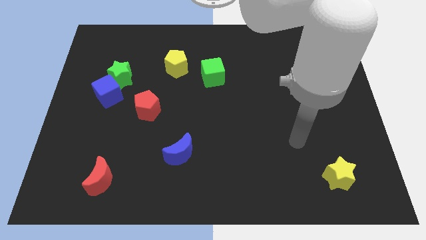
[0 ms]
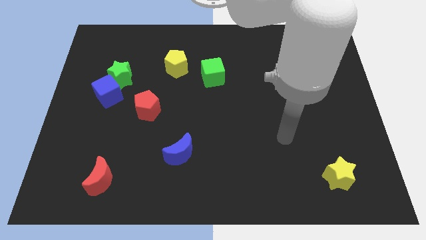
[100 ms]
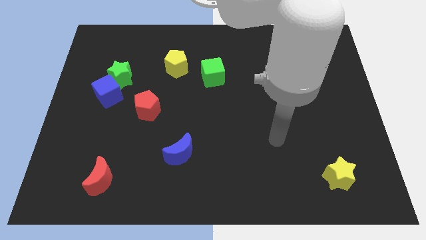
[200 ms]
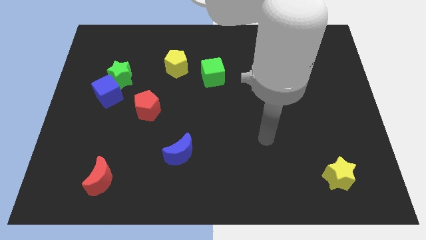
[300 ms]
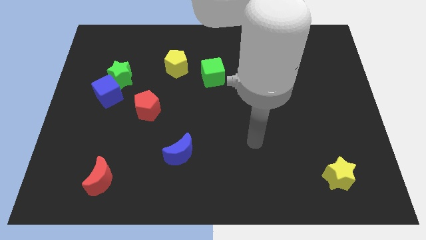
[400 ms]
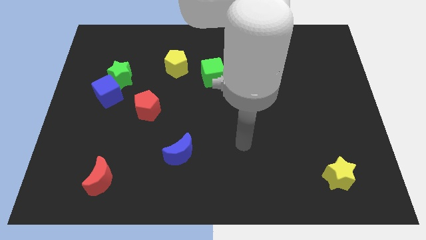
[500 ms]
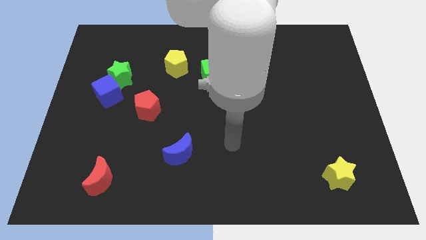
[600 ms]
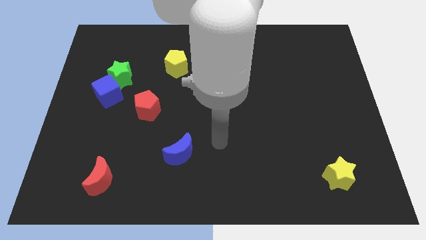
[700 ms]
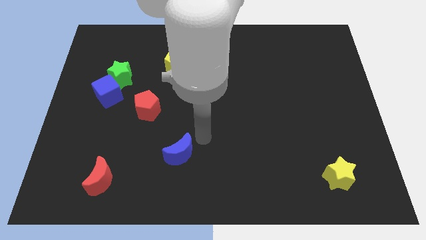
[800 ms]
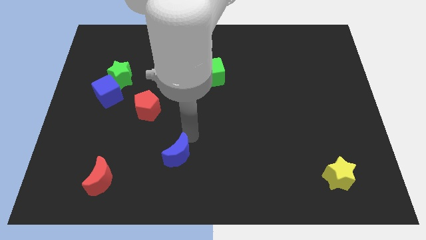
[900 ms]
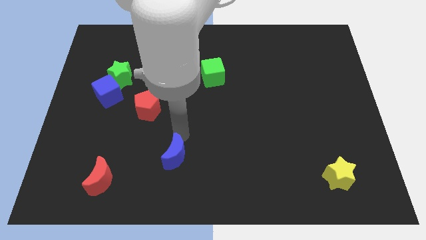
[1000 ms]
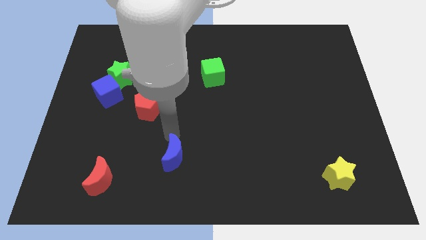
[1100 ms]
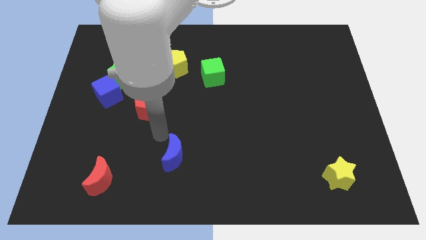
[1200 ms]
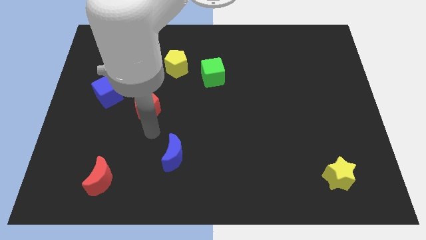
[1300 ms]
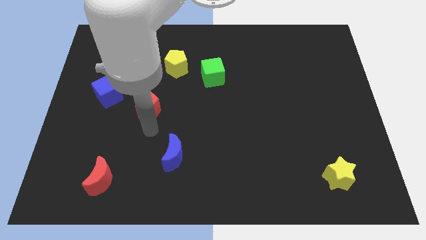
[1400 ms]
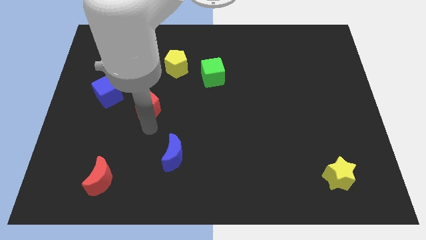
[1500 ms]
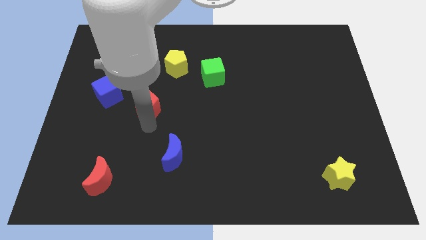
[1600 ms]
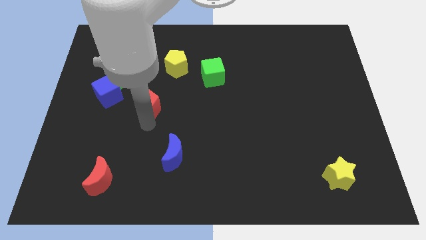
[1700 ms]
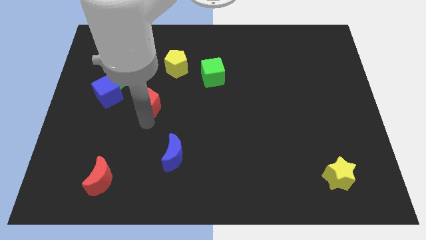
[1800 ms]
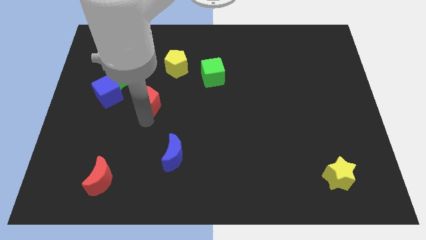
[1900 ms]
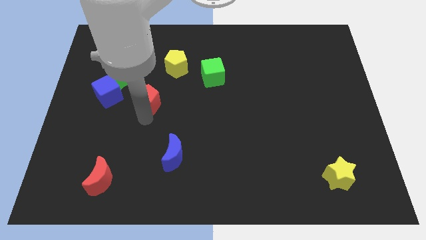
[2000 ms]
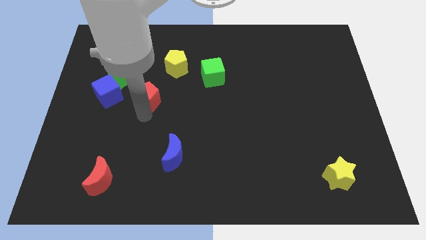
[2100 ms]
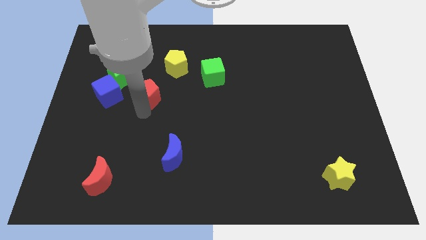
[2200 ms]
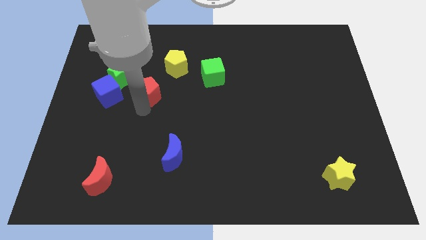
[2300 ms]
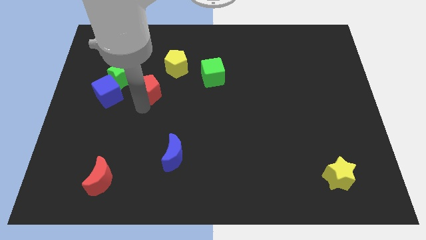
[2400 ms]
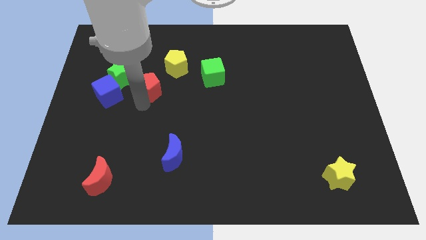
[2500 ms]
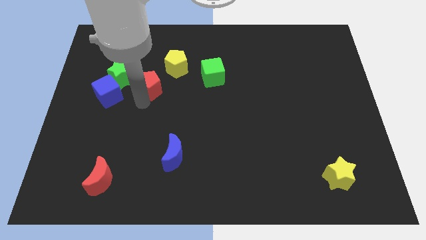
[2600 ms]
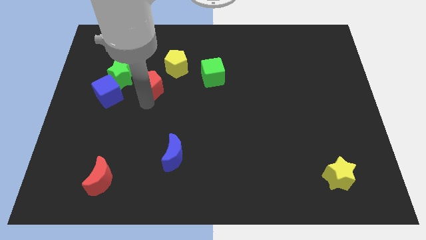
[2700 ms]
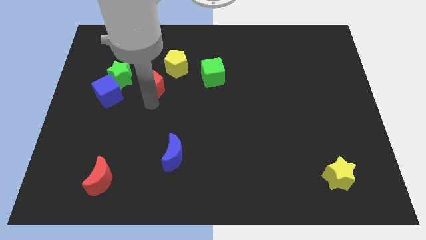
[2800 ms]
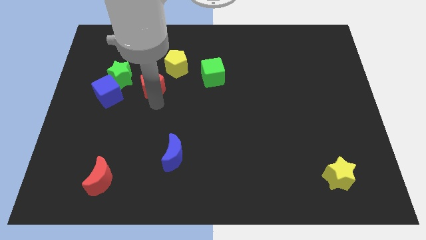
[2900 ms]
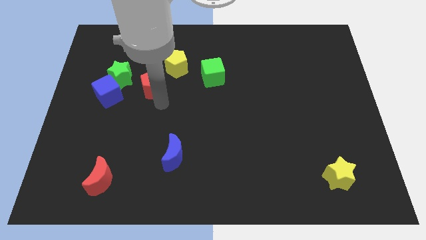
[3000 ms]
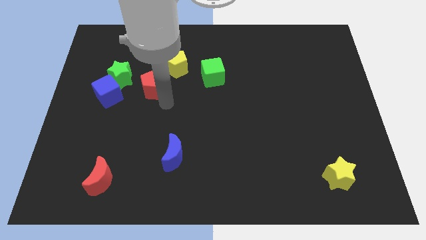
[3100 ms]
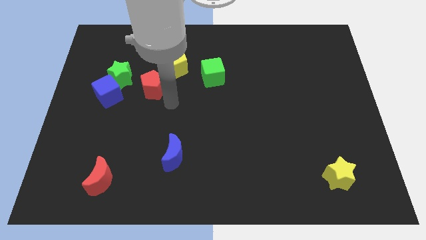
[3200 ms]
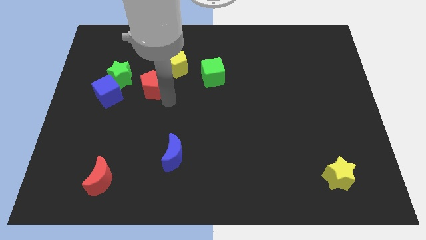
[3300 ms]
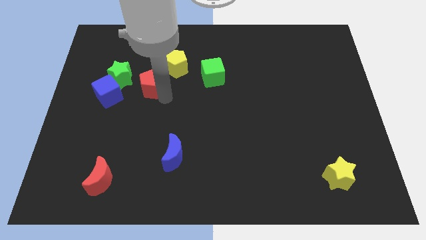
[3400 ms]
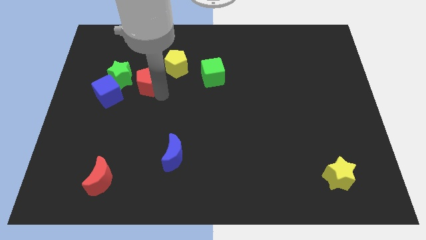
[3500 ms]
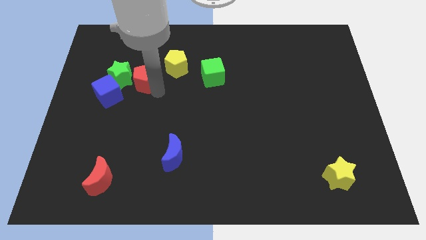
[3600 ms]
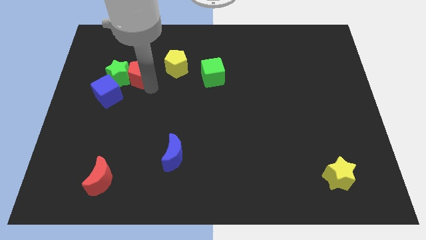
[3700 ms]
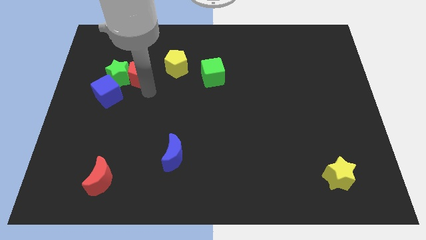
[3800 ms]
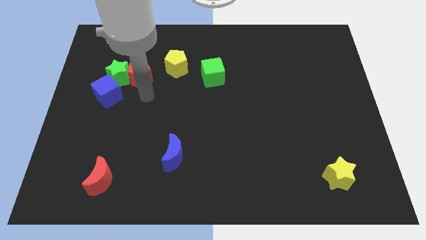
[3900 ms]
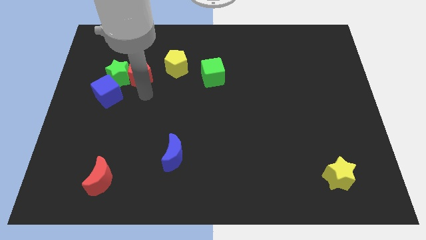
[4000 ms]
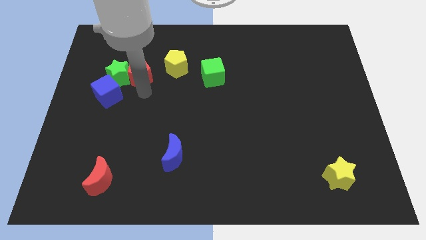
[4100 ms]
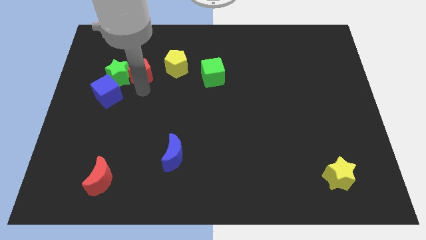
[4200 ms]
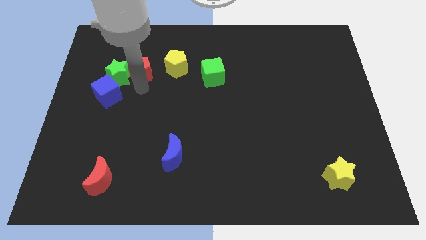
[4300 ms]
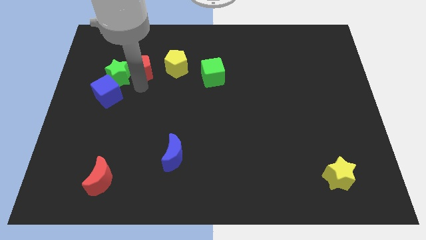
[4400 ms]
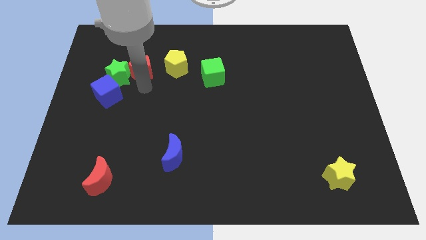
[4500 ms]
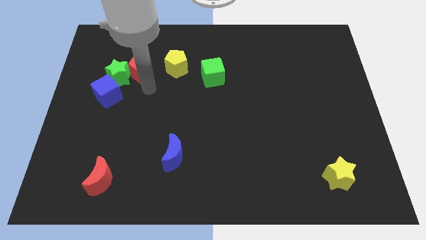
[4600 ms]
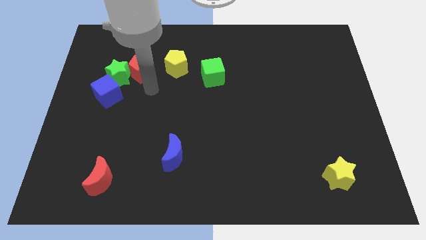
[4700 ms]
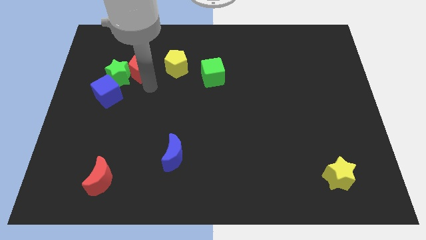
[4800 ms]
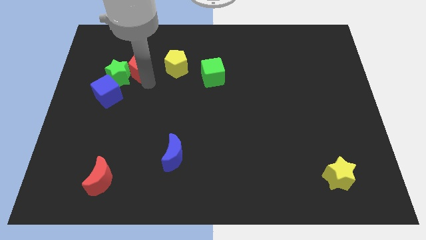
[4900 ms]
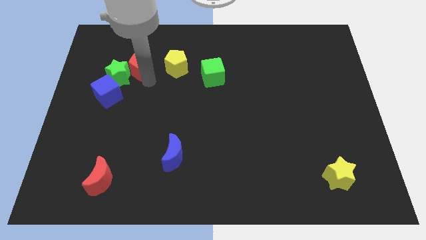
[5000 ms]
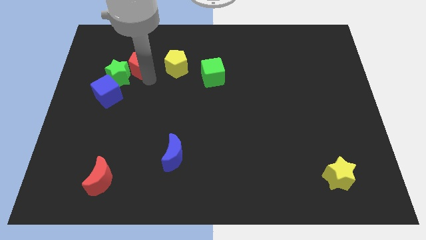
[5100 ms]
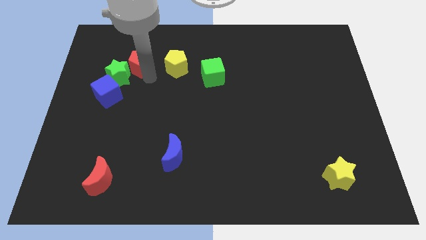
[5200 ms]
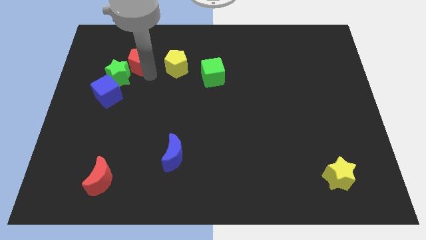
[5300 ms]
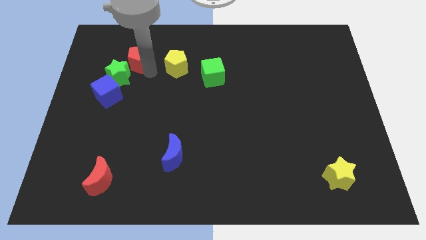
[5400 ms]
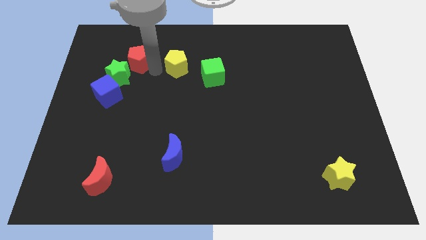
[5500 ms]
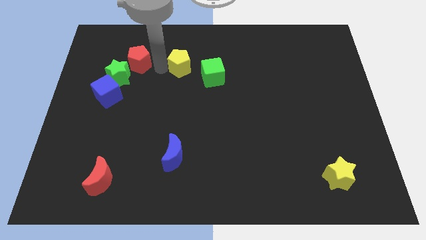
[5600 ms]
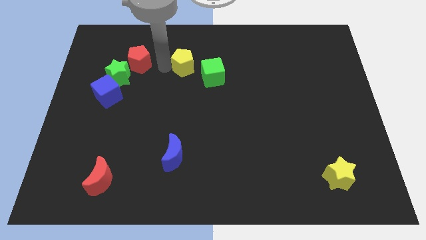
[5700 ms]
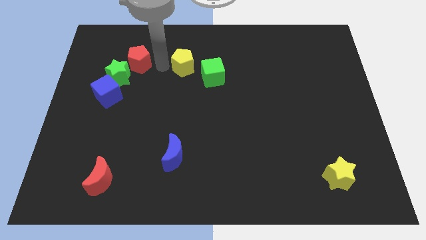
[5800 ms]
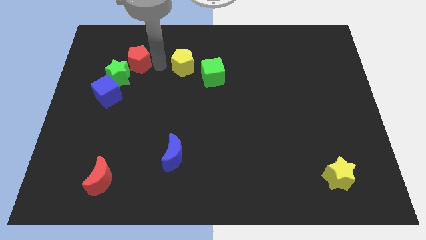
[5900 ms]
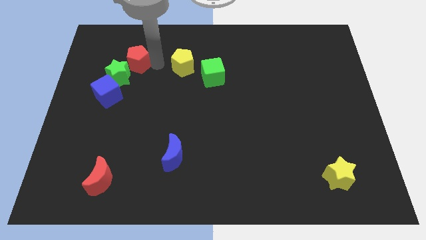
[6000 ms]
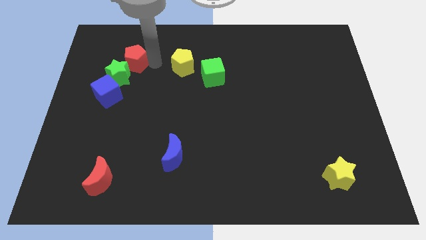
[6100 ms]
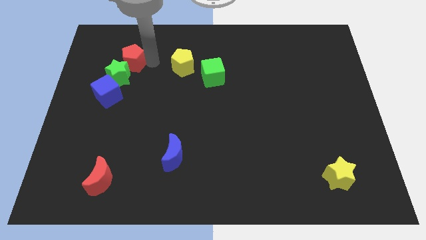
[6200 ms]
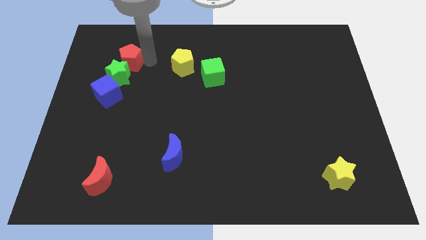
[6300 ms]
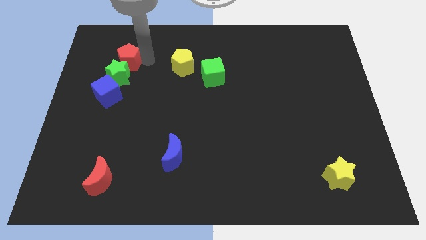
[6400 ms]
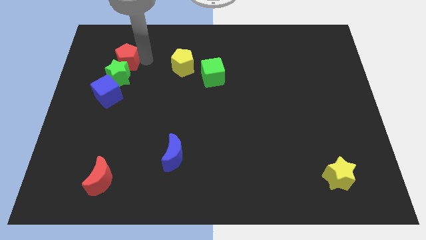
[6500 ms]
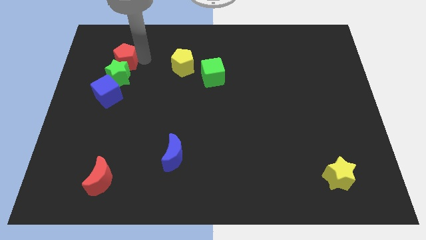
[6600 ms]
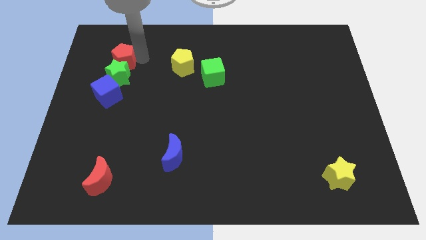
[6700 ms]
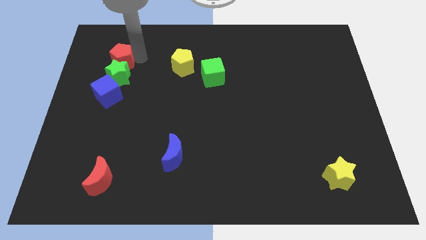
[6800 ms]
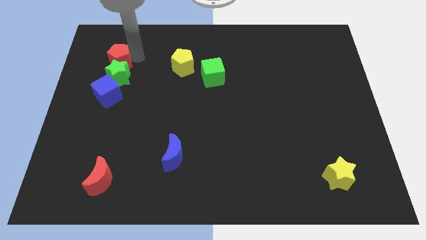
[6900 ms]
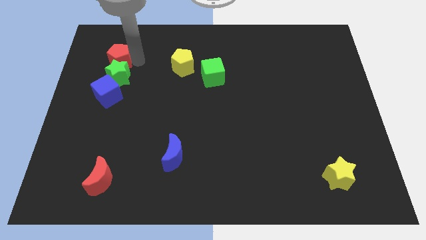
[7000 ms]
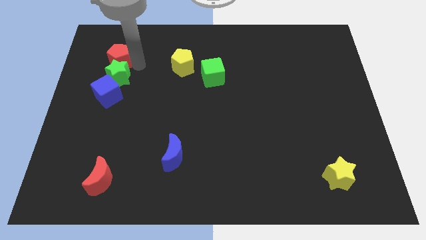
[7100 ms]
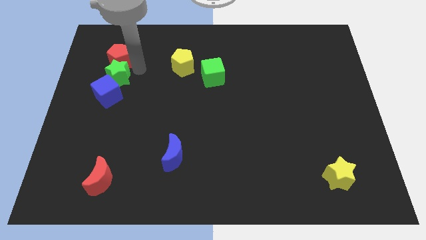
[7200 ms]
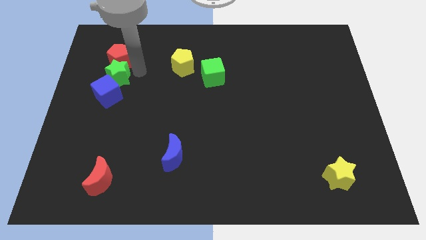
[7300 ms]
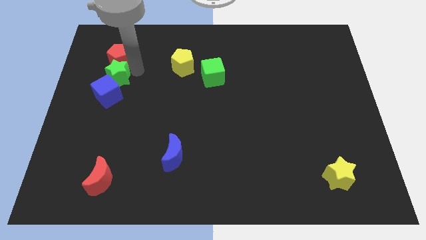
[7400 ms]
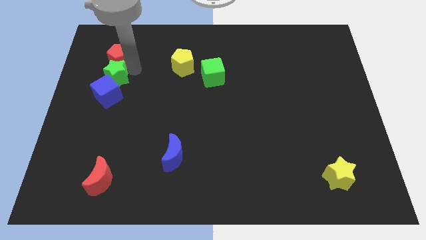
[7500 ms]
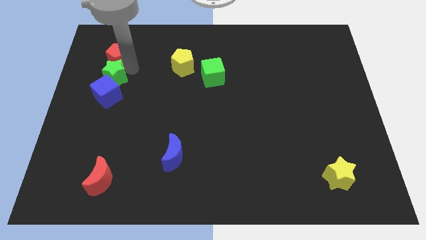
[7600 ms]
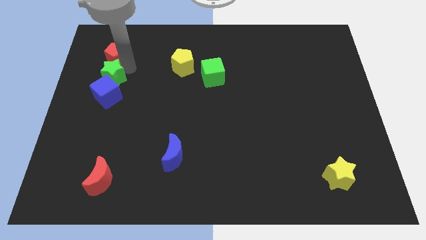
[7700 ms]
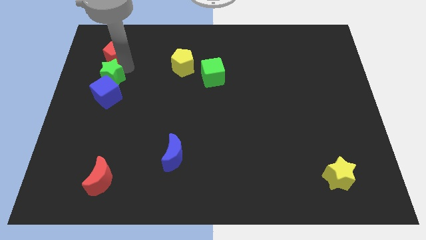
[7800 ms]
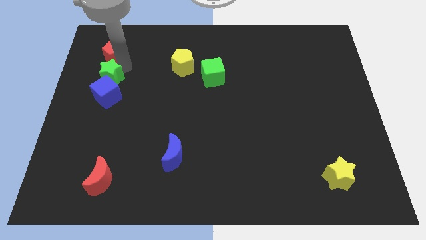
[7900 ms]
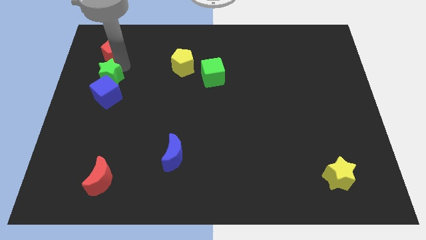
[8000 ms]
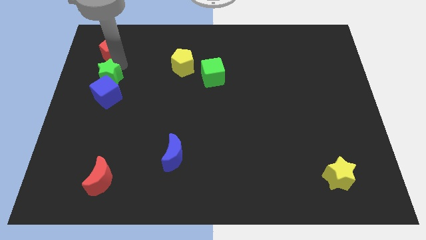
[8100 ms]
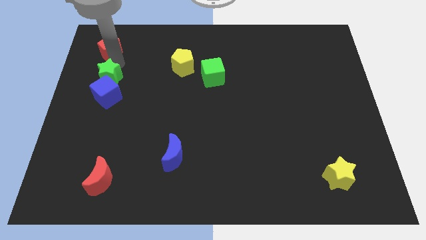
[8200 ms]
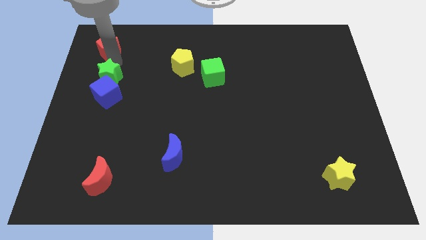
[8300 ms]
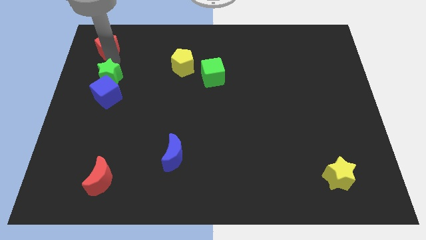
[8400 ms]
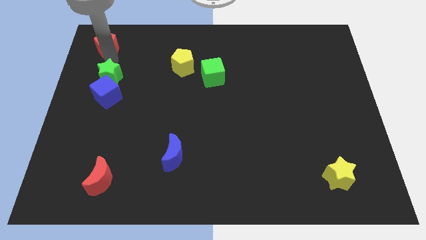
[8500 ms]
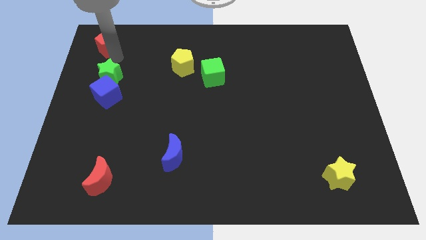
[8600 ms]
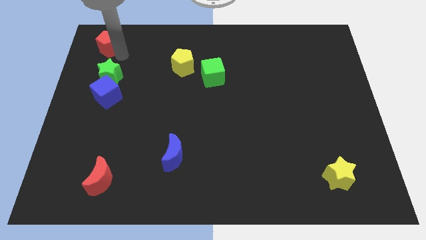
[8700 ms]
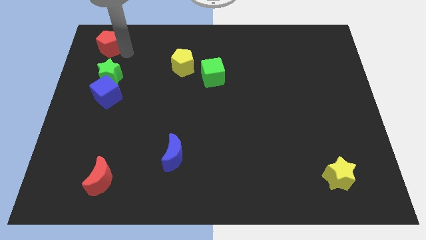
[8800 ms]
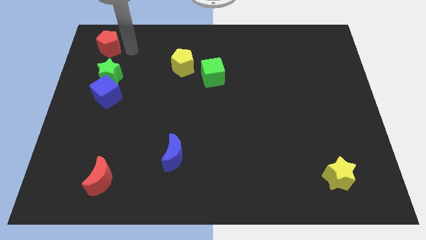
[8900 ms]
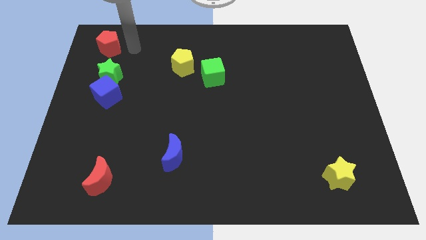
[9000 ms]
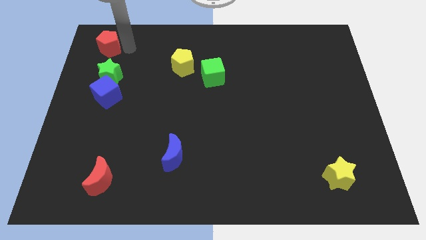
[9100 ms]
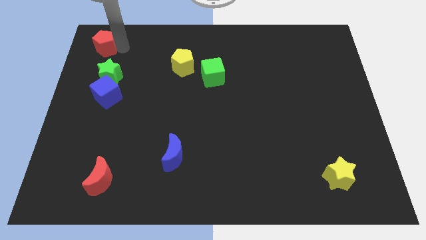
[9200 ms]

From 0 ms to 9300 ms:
put the red pentagon to the top left
